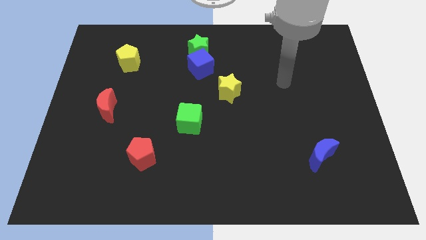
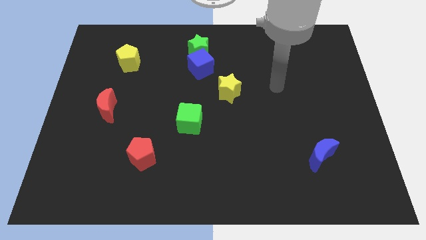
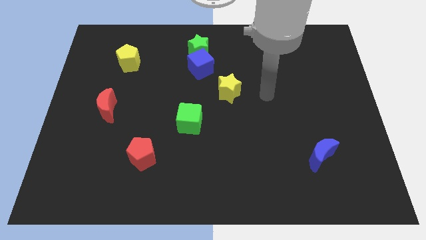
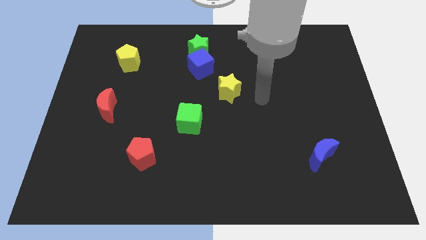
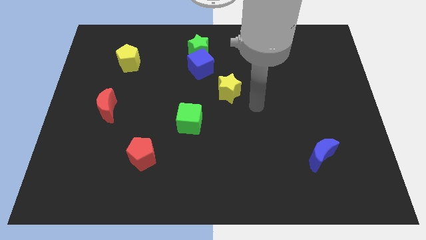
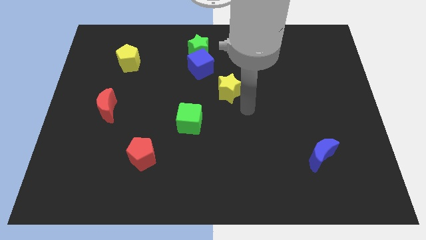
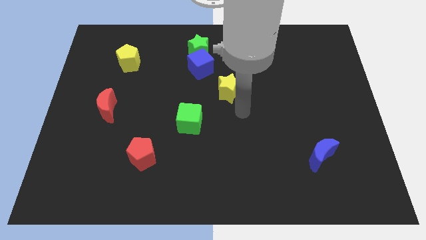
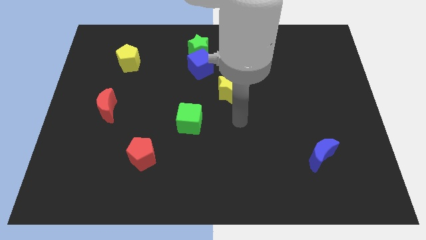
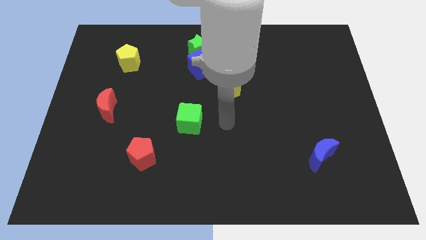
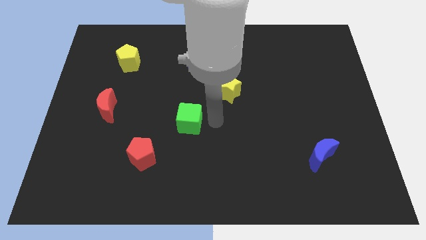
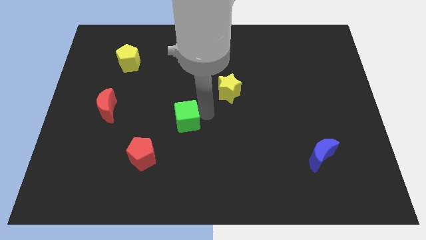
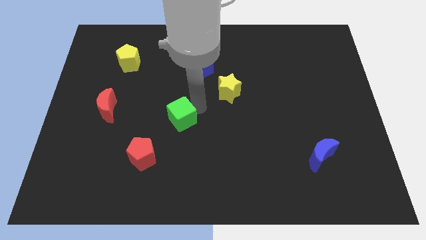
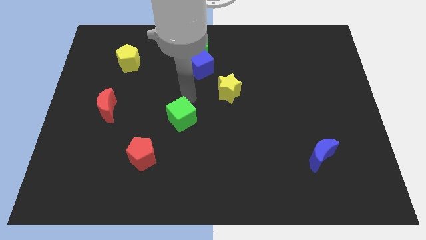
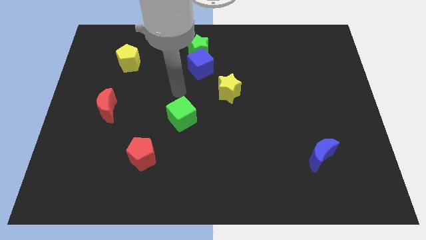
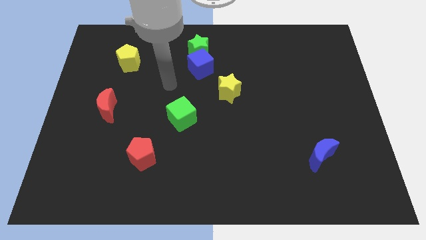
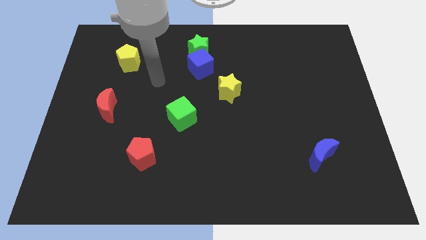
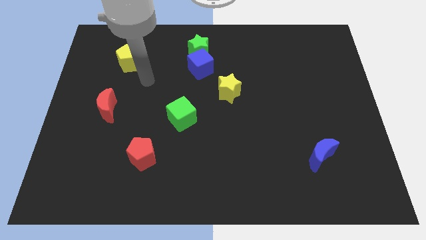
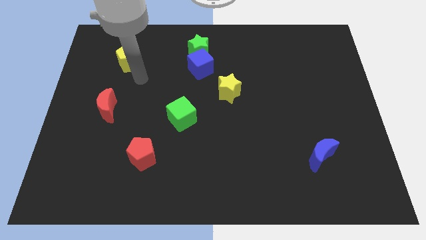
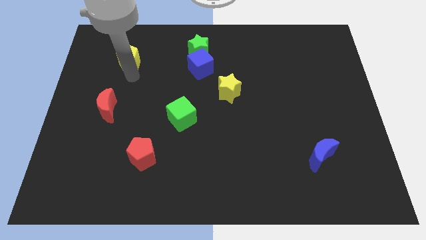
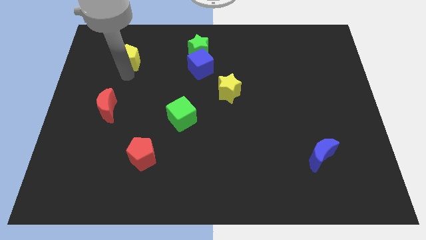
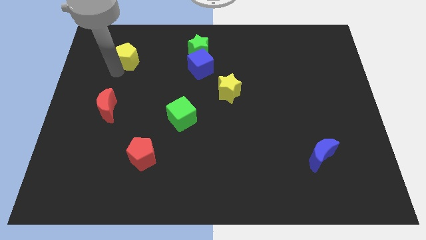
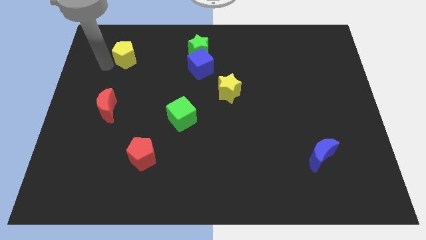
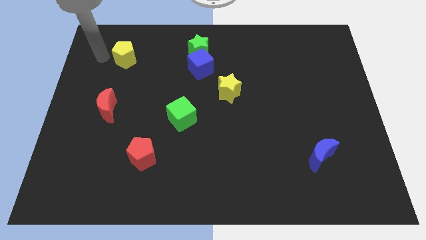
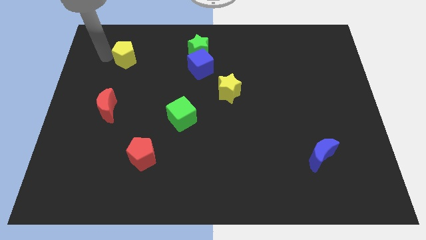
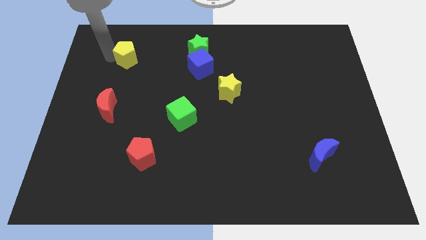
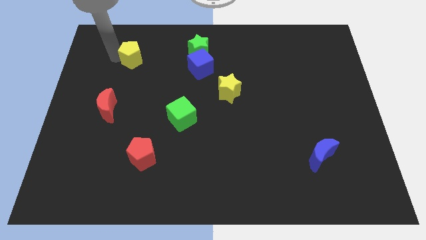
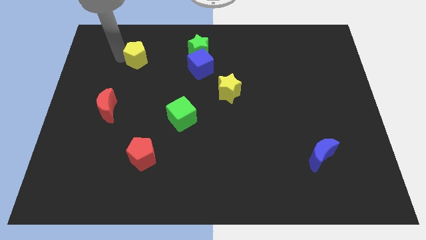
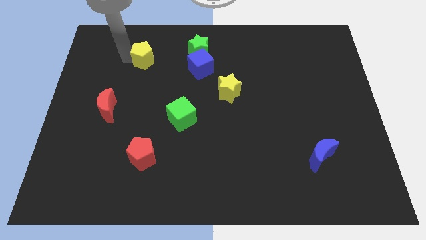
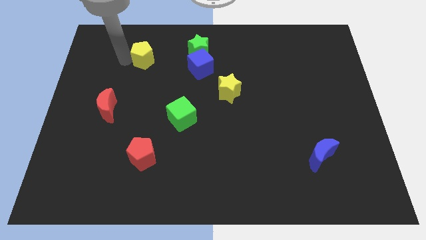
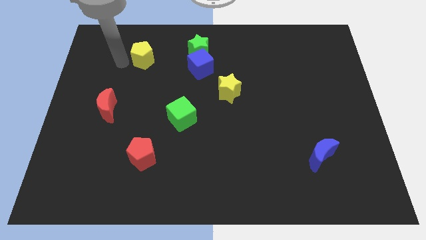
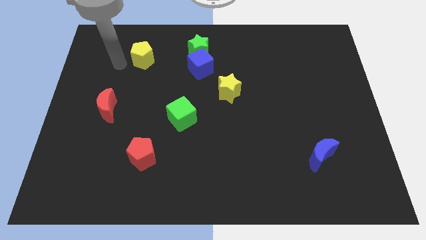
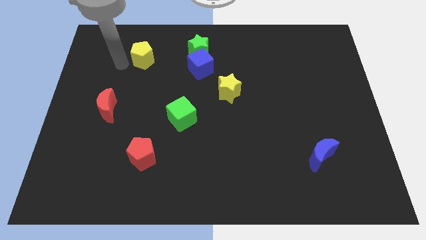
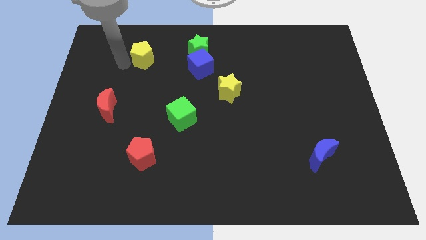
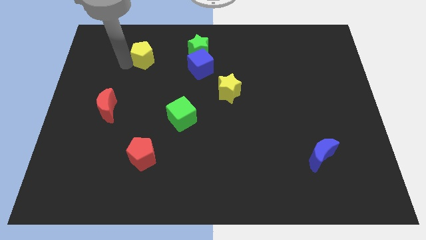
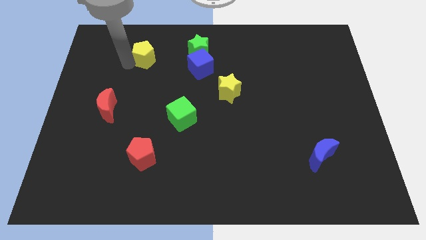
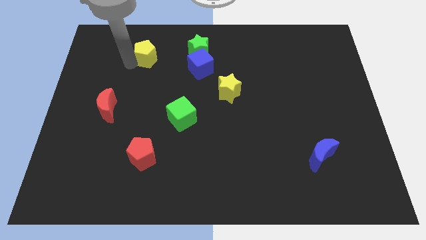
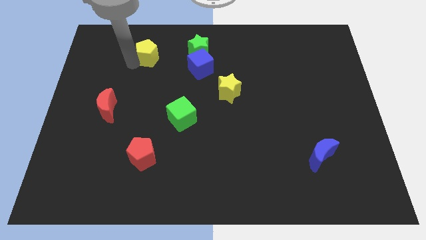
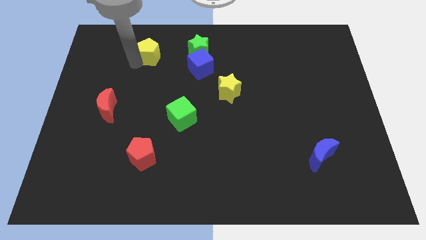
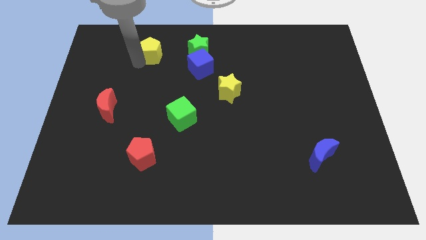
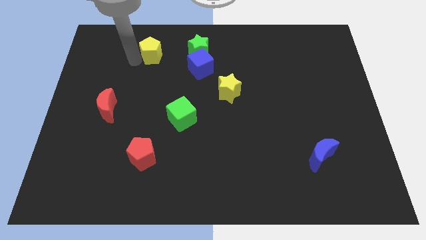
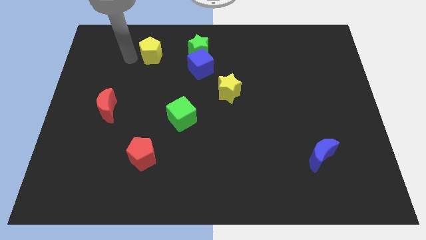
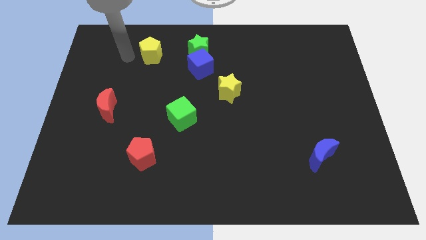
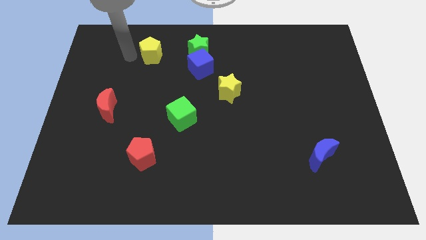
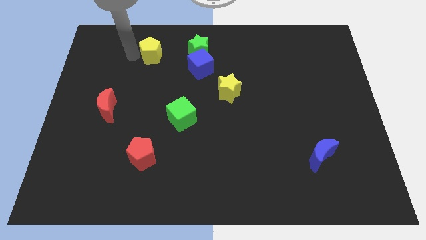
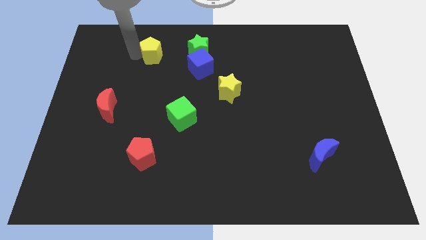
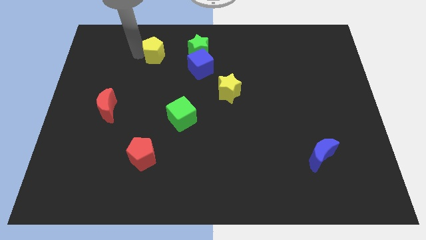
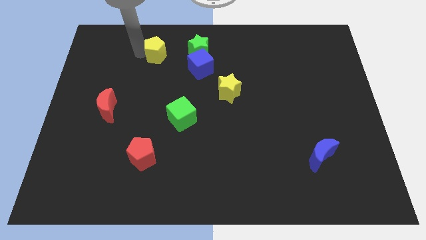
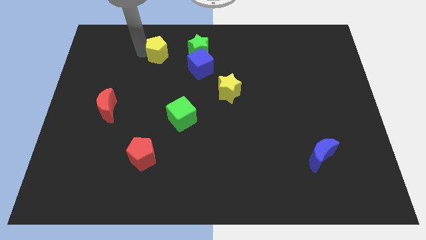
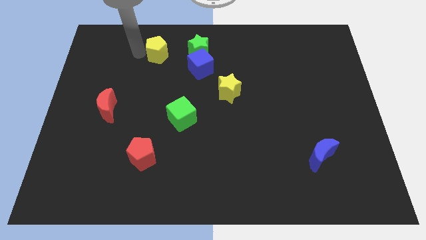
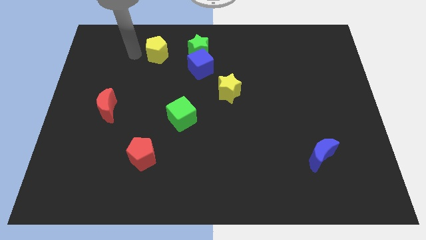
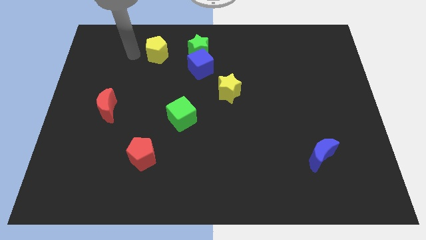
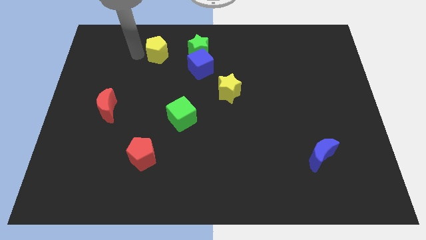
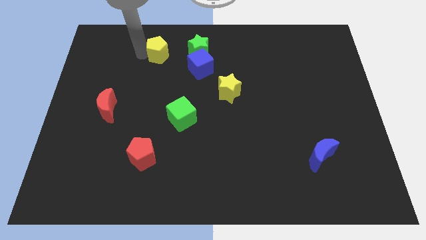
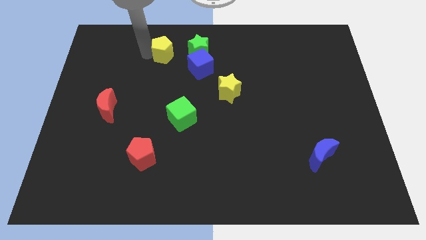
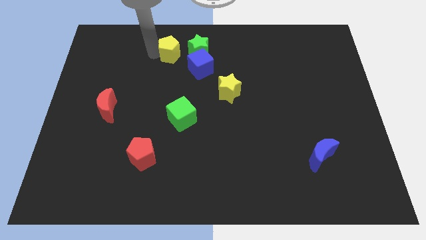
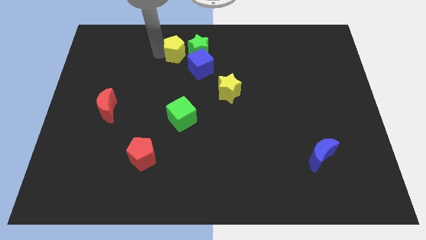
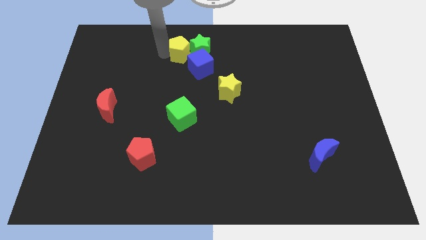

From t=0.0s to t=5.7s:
put the yellow pentagon next to the green star

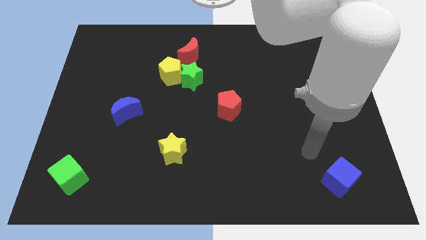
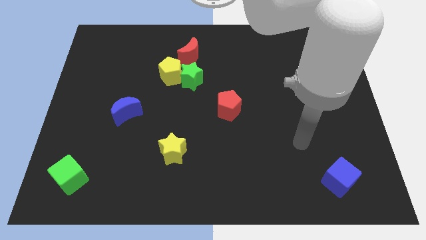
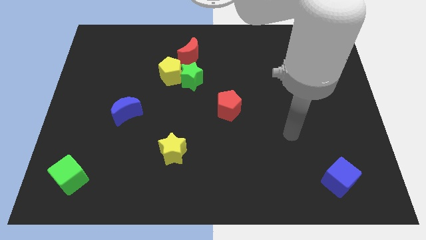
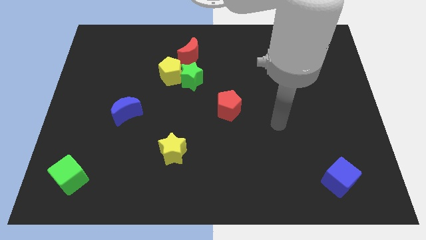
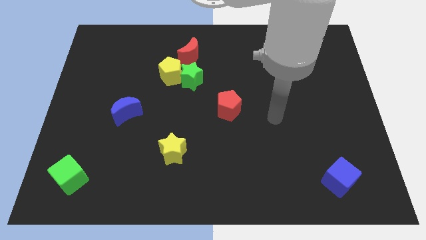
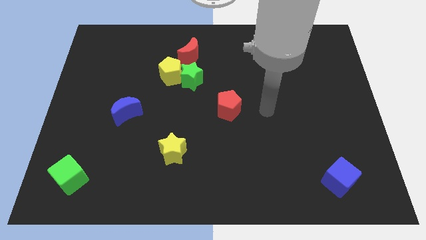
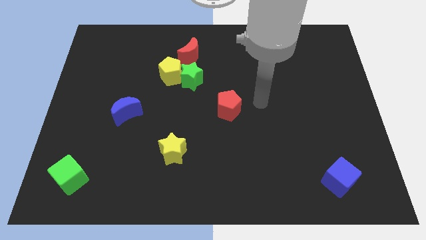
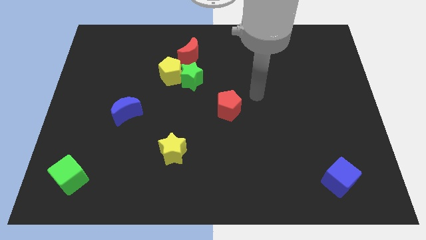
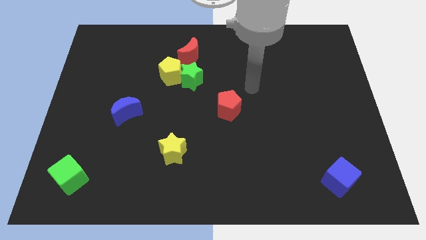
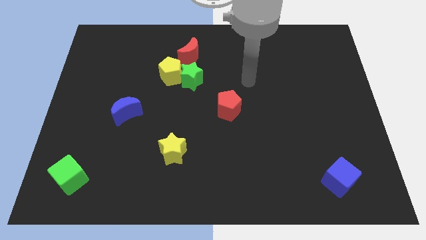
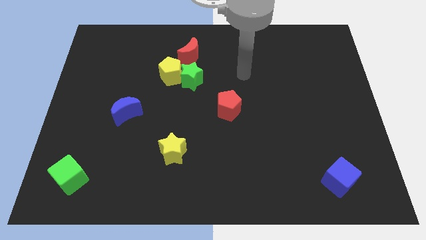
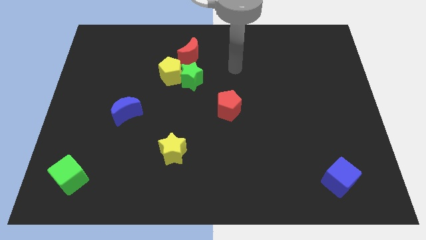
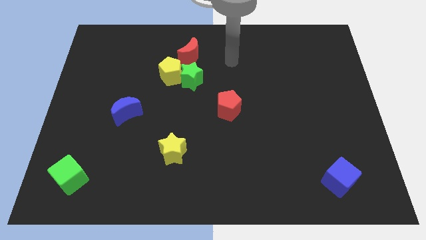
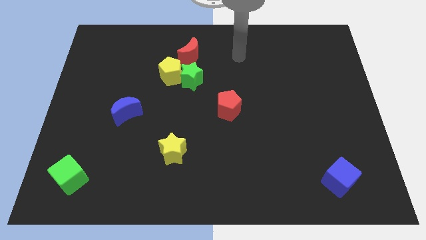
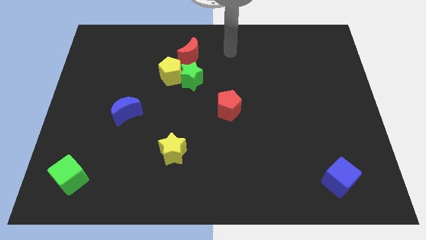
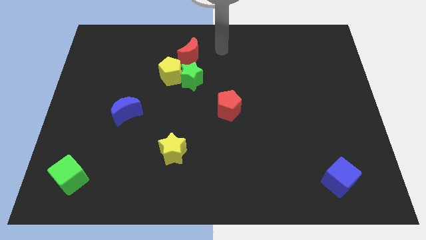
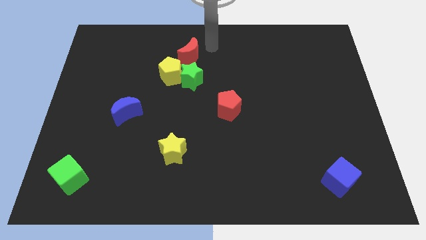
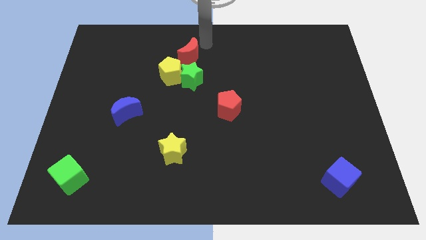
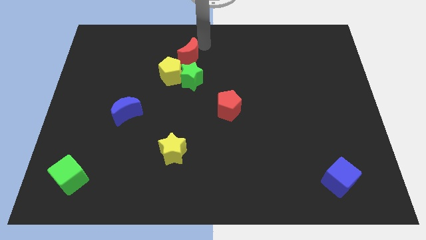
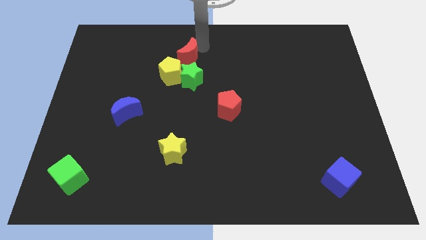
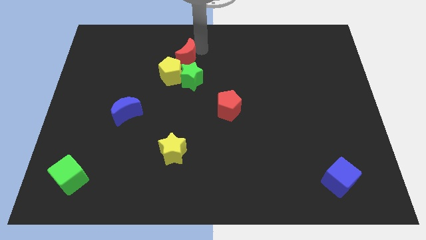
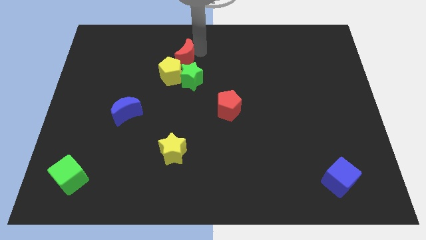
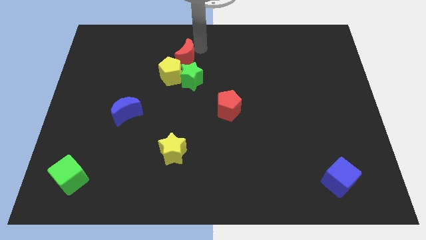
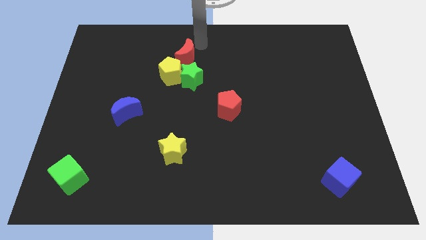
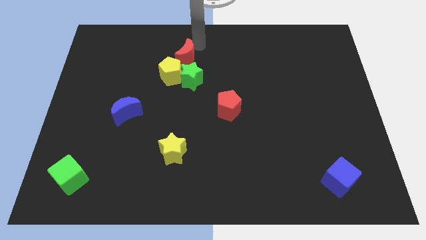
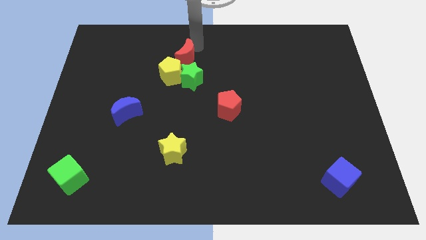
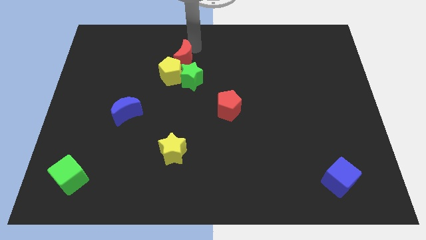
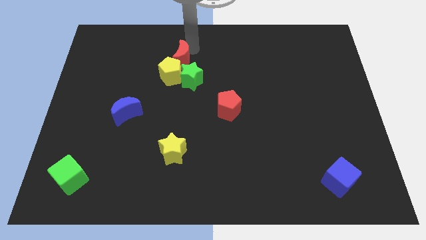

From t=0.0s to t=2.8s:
put the red moon close to the yellow pentagon
